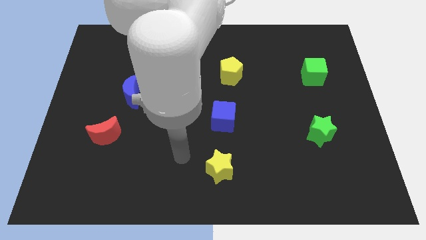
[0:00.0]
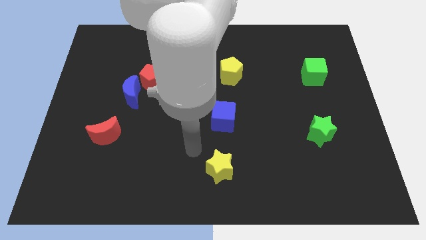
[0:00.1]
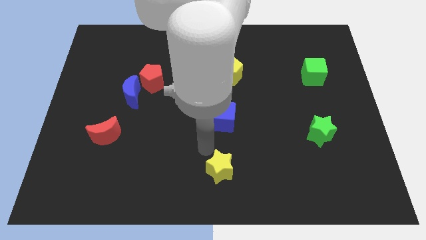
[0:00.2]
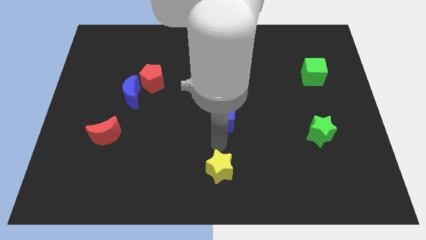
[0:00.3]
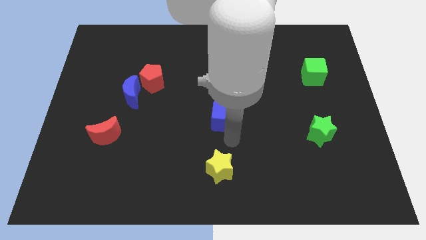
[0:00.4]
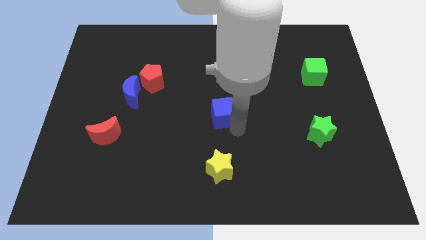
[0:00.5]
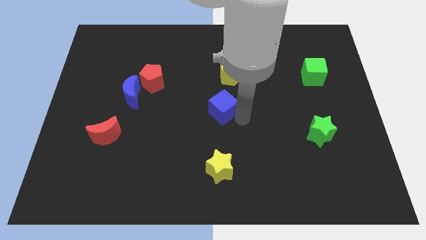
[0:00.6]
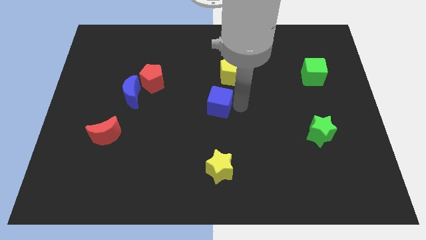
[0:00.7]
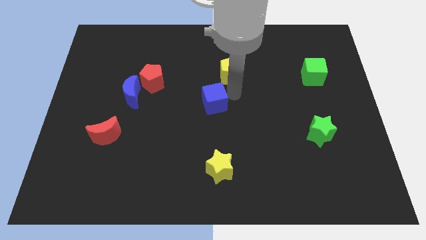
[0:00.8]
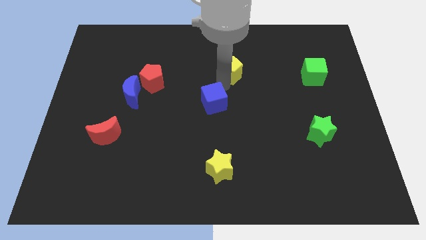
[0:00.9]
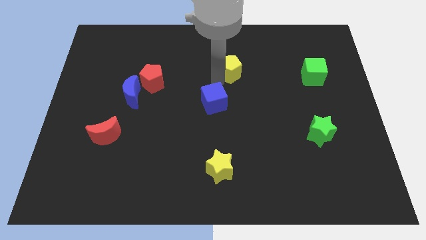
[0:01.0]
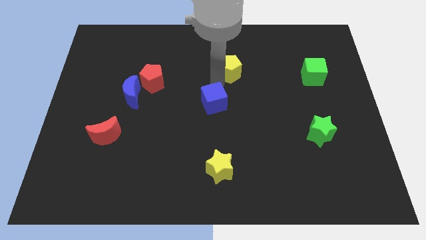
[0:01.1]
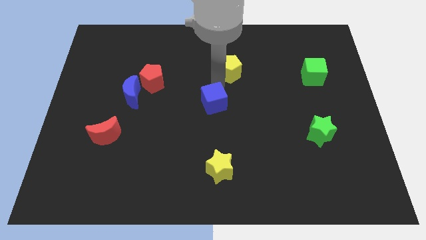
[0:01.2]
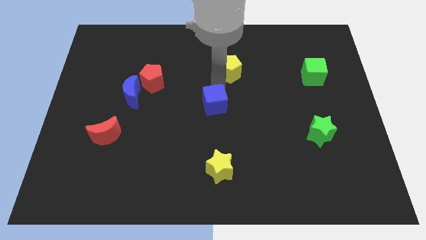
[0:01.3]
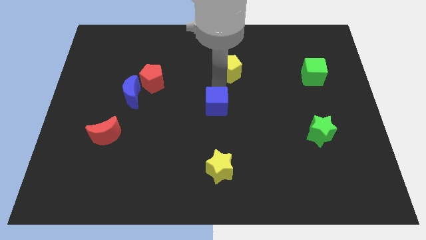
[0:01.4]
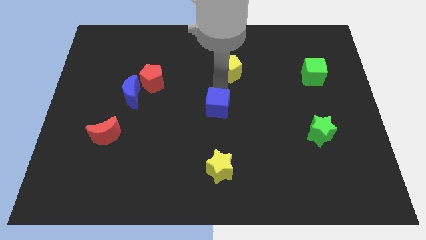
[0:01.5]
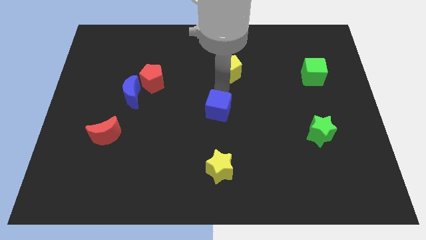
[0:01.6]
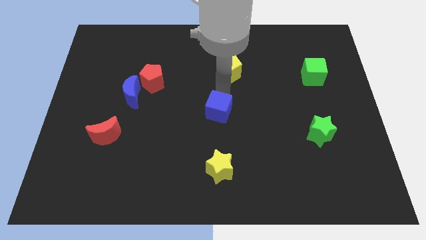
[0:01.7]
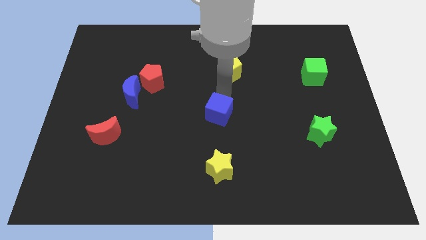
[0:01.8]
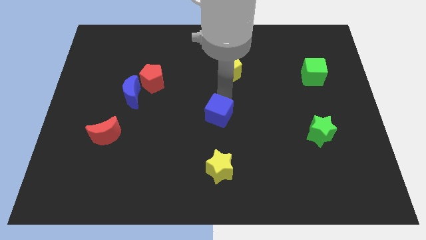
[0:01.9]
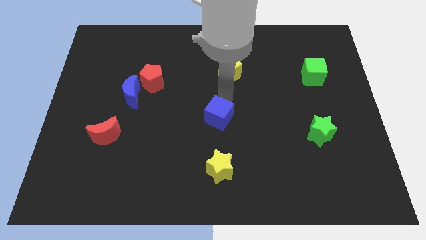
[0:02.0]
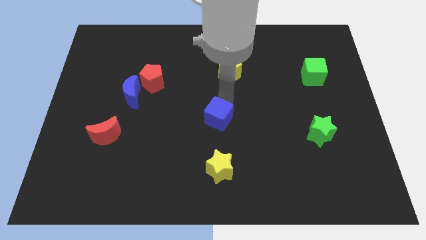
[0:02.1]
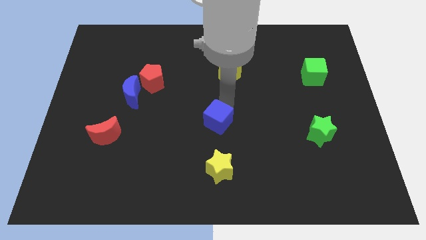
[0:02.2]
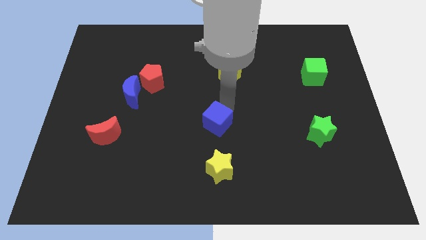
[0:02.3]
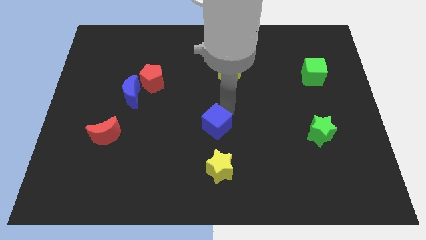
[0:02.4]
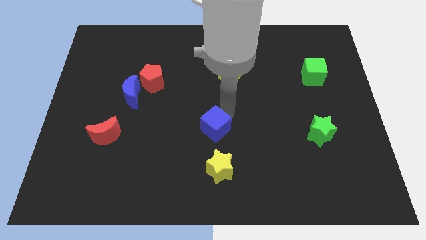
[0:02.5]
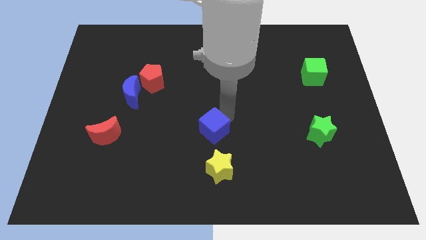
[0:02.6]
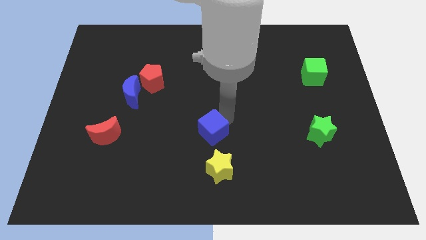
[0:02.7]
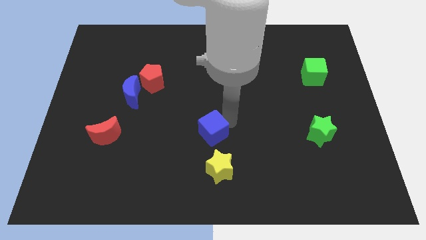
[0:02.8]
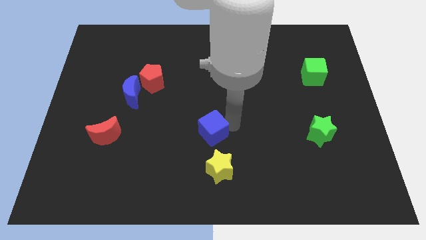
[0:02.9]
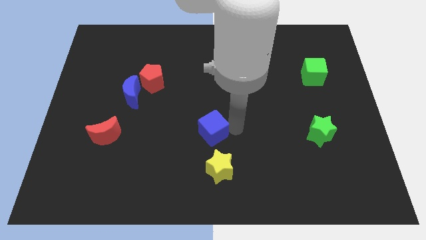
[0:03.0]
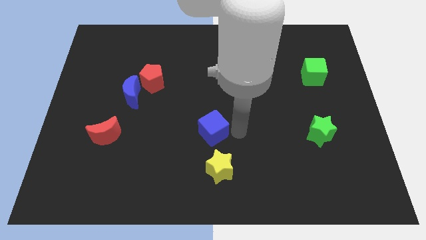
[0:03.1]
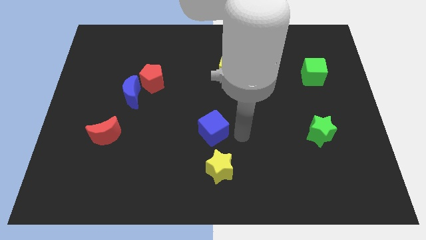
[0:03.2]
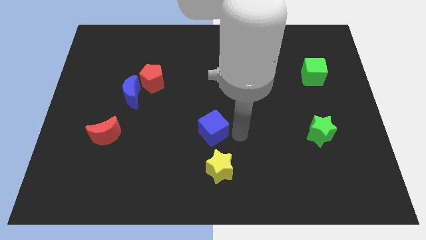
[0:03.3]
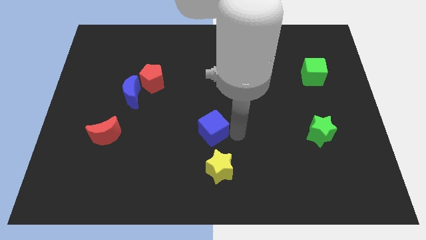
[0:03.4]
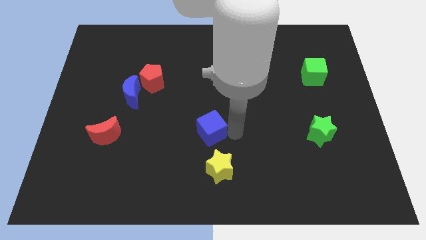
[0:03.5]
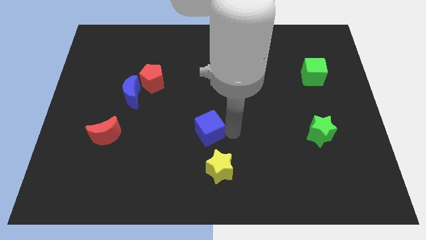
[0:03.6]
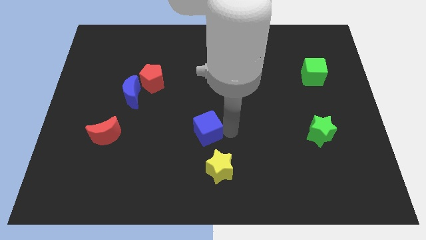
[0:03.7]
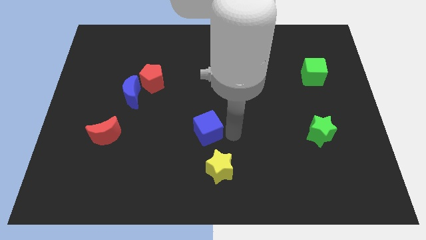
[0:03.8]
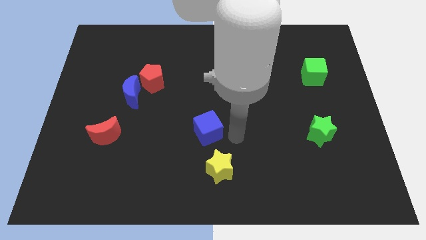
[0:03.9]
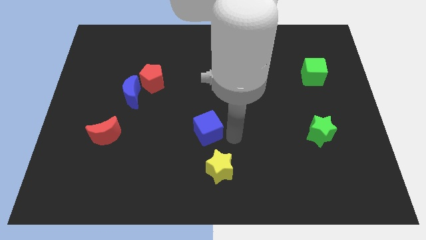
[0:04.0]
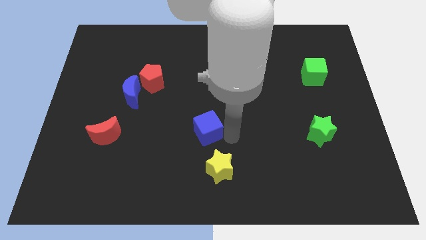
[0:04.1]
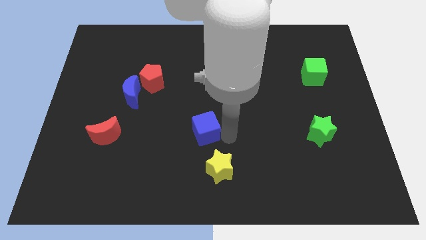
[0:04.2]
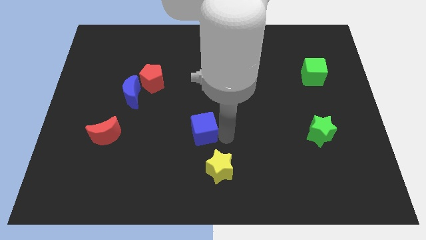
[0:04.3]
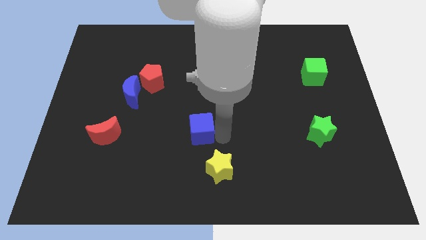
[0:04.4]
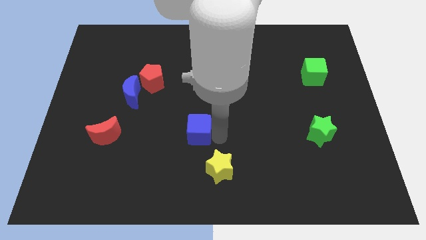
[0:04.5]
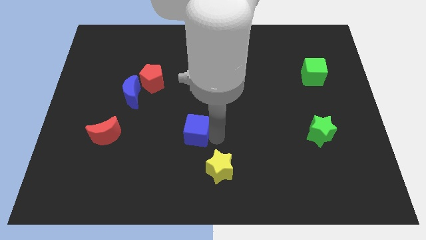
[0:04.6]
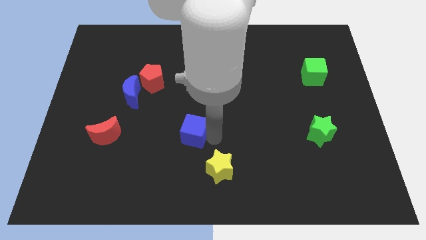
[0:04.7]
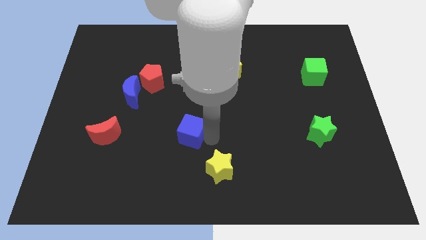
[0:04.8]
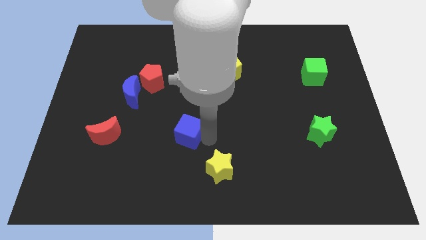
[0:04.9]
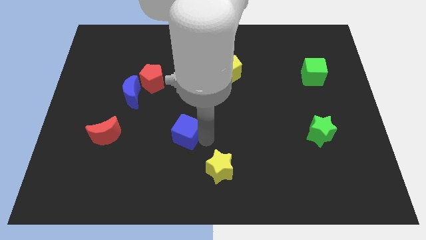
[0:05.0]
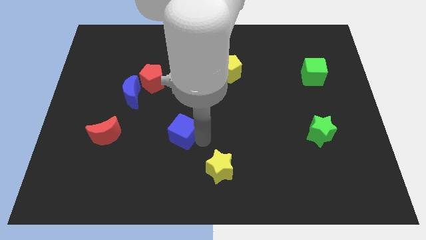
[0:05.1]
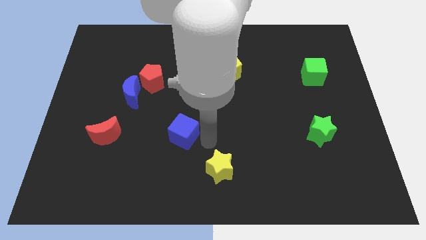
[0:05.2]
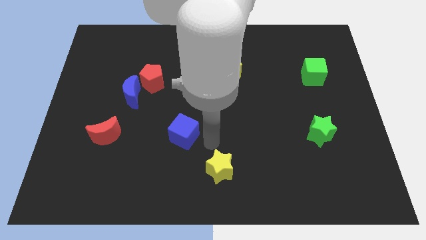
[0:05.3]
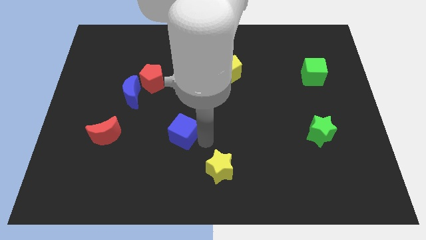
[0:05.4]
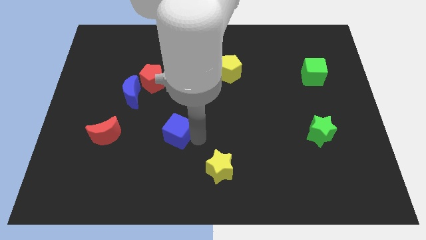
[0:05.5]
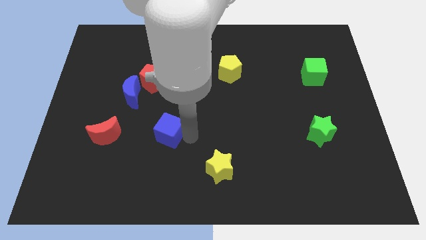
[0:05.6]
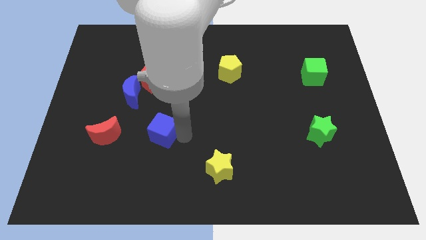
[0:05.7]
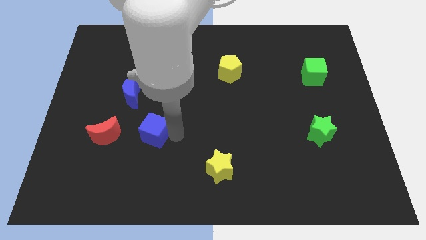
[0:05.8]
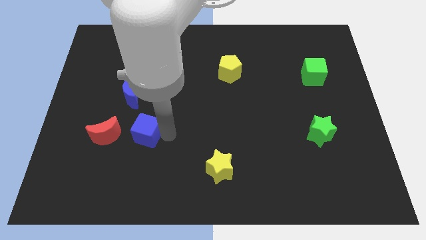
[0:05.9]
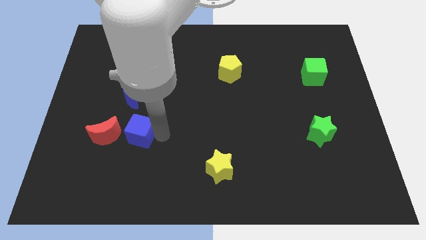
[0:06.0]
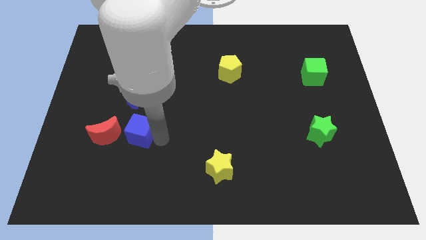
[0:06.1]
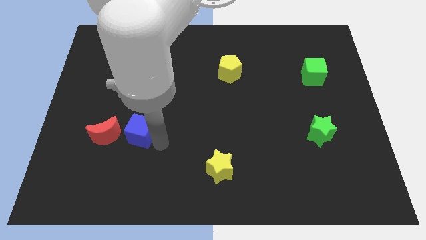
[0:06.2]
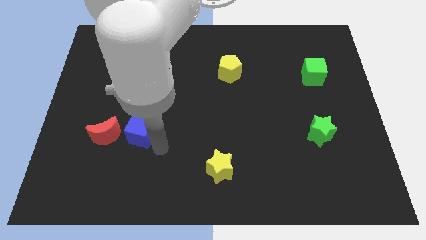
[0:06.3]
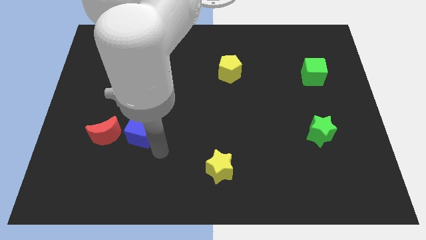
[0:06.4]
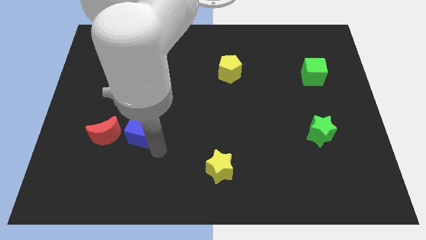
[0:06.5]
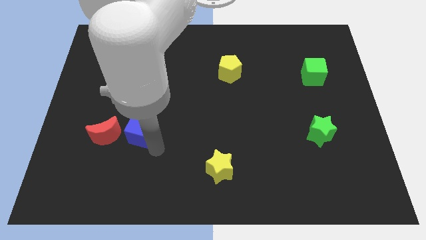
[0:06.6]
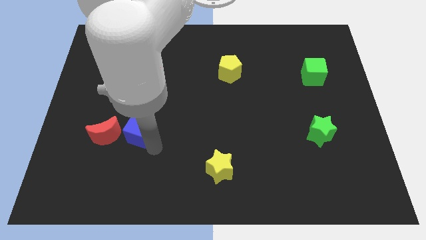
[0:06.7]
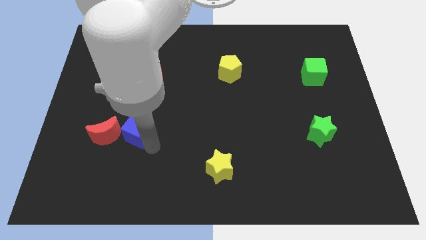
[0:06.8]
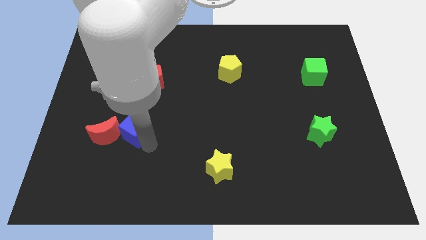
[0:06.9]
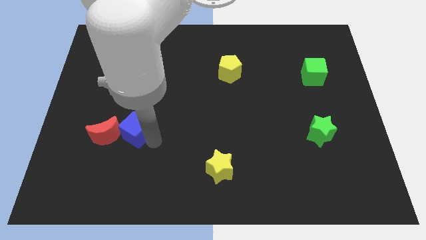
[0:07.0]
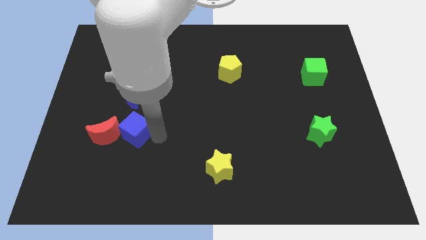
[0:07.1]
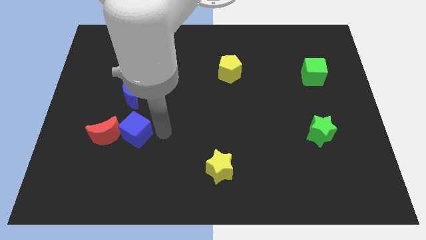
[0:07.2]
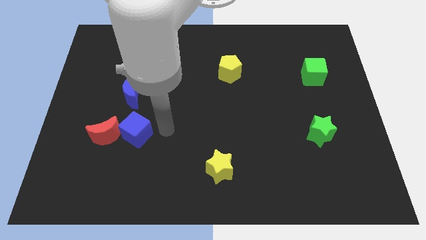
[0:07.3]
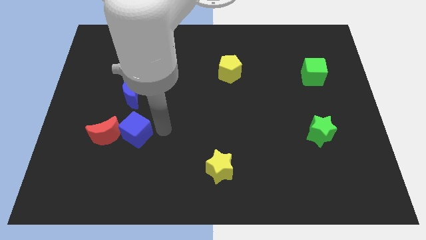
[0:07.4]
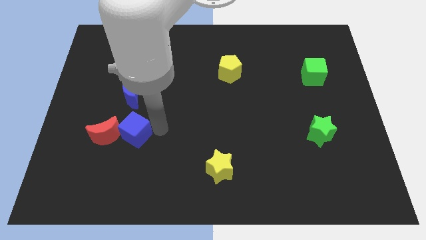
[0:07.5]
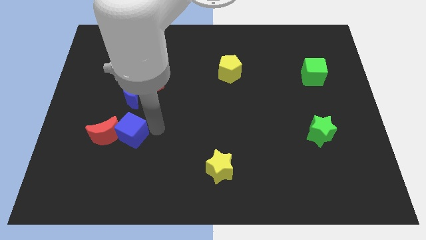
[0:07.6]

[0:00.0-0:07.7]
move the blue cube towards the red moon

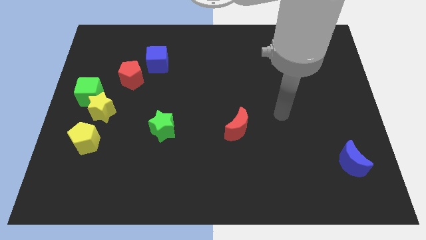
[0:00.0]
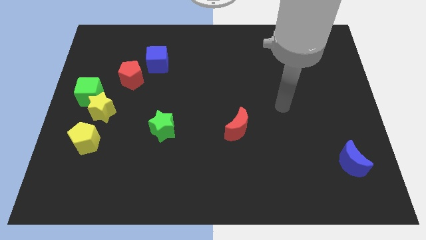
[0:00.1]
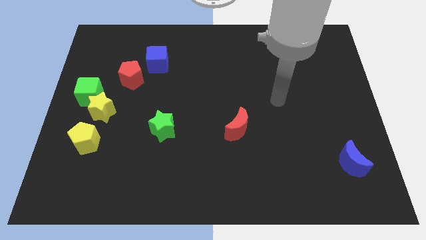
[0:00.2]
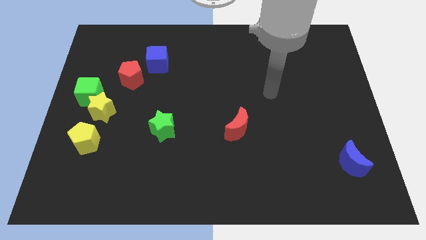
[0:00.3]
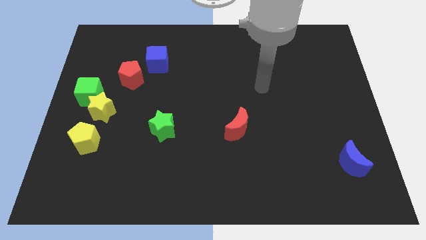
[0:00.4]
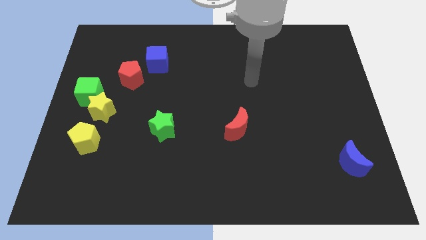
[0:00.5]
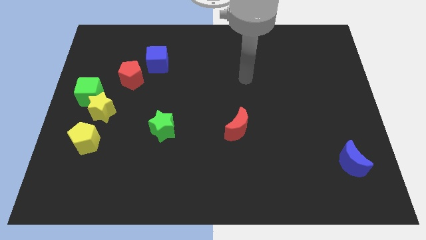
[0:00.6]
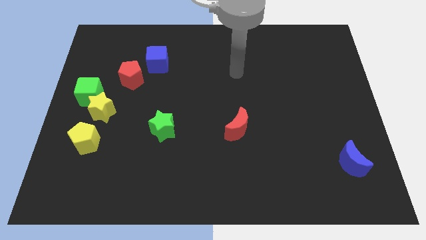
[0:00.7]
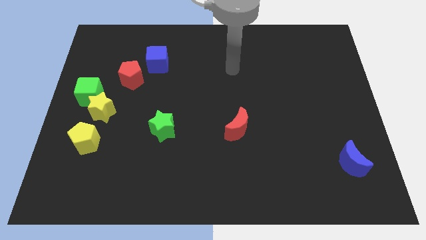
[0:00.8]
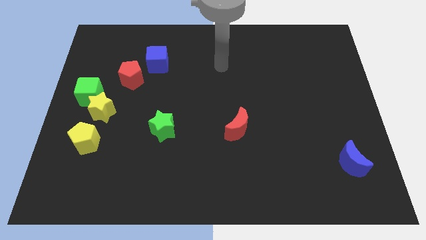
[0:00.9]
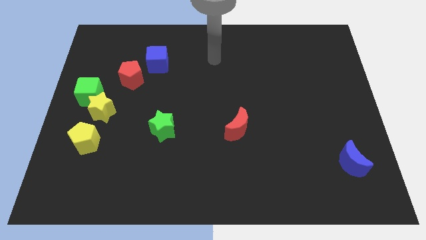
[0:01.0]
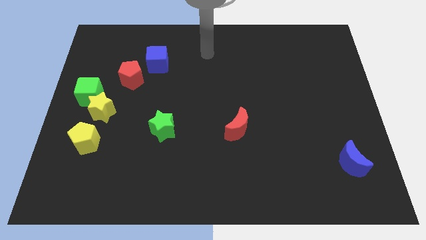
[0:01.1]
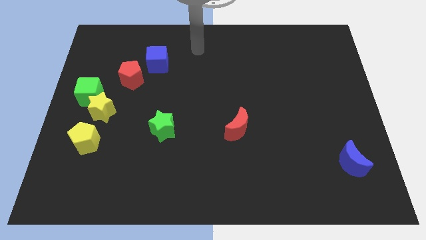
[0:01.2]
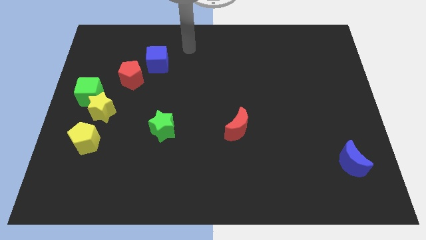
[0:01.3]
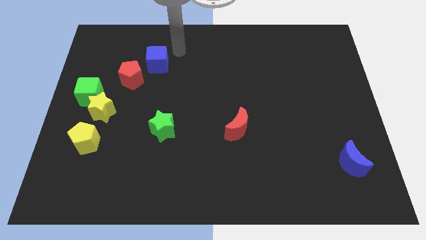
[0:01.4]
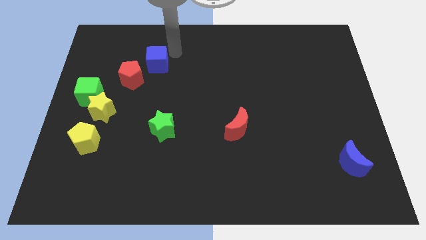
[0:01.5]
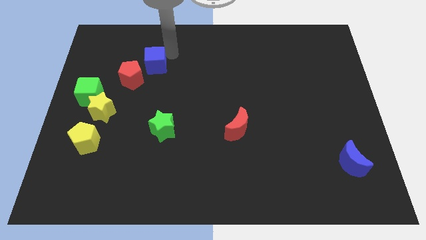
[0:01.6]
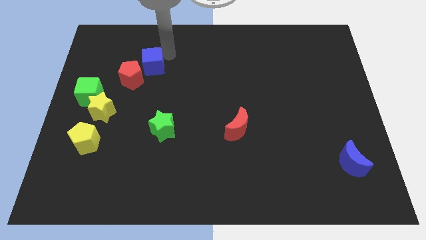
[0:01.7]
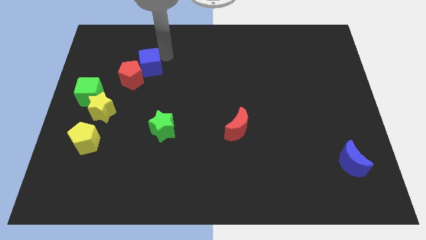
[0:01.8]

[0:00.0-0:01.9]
move the blue cube close to the red pentagon
